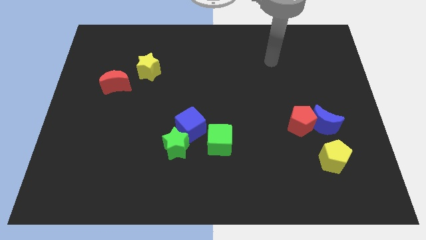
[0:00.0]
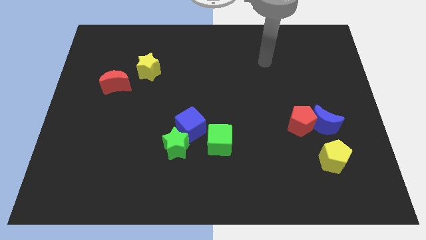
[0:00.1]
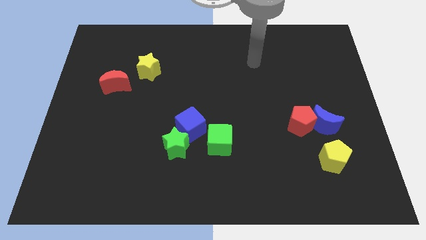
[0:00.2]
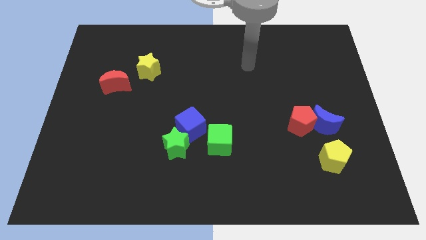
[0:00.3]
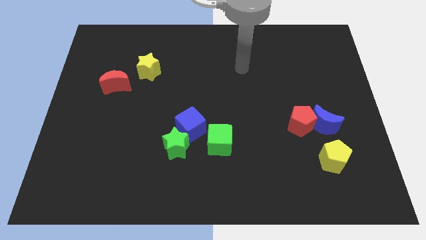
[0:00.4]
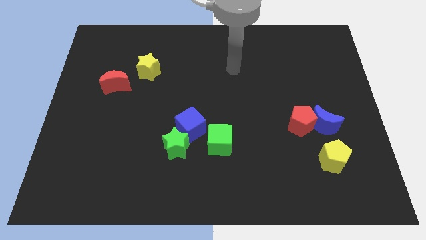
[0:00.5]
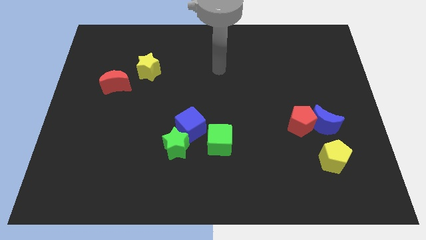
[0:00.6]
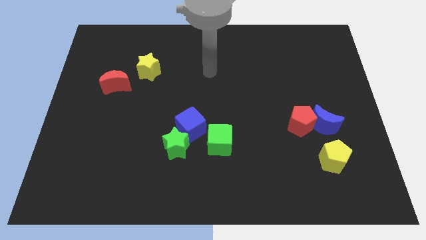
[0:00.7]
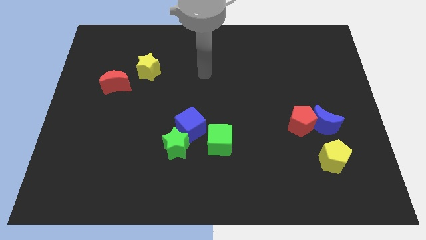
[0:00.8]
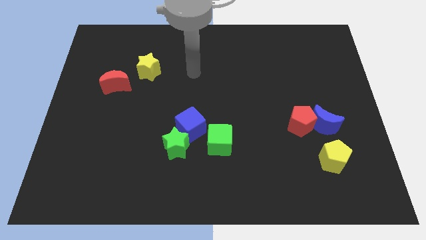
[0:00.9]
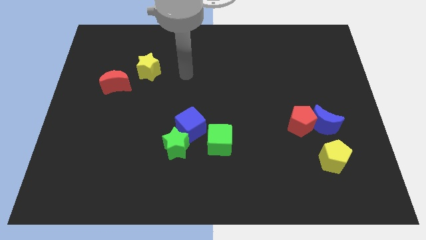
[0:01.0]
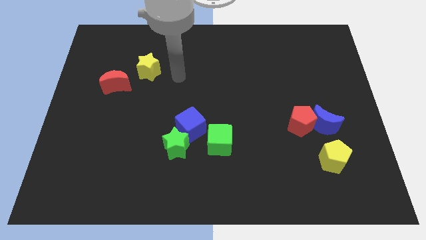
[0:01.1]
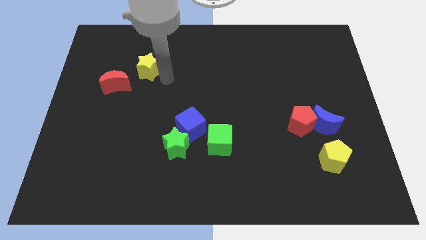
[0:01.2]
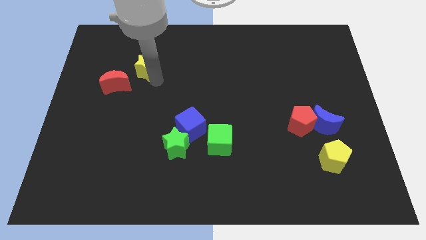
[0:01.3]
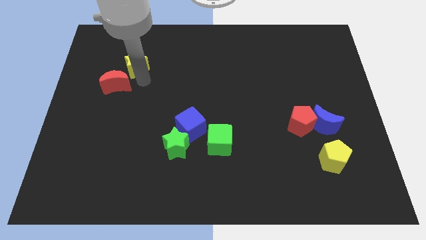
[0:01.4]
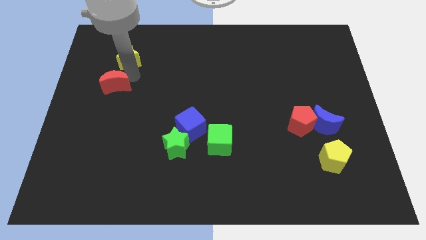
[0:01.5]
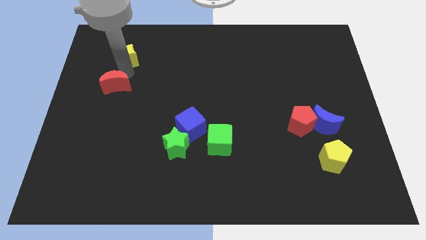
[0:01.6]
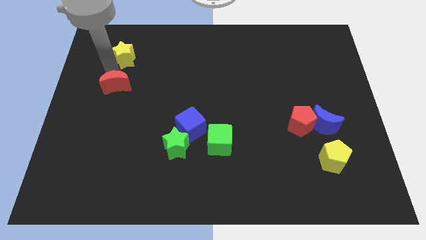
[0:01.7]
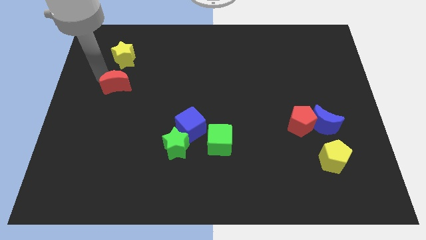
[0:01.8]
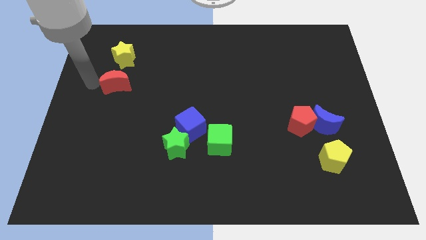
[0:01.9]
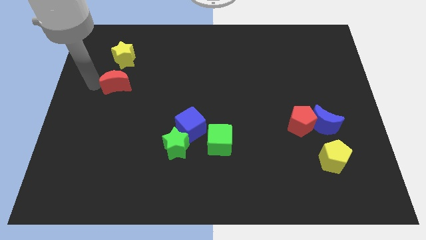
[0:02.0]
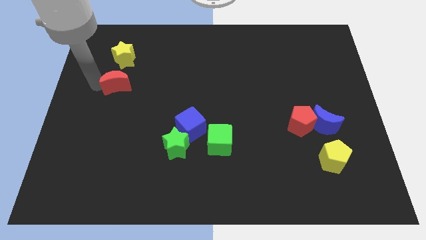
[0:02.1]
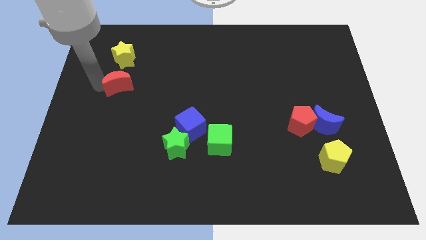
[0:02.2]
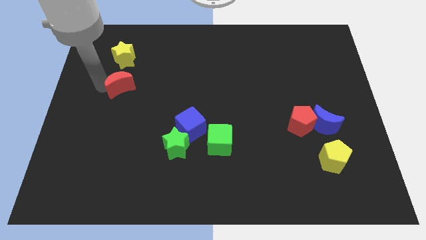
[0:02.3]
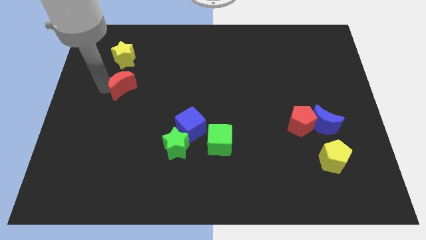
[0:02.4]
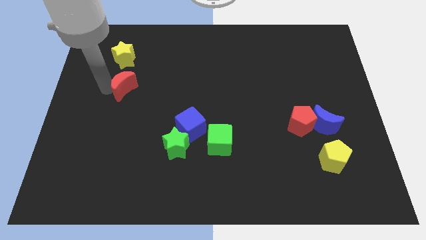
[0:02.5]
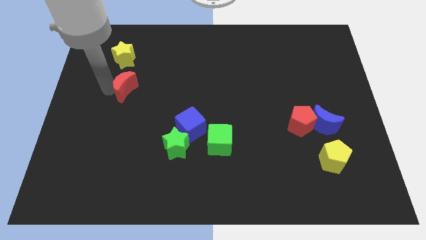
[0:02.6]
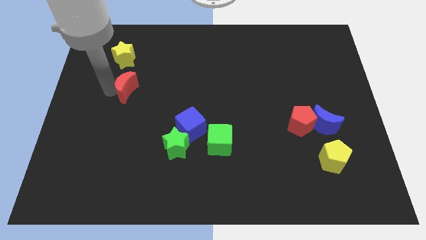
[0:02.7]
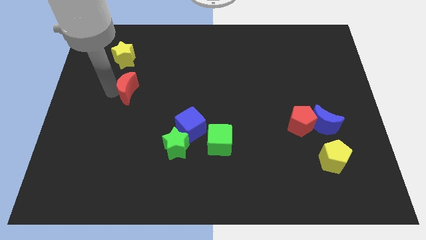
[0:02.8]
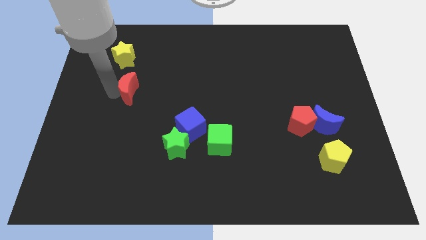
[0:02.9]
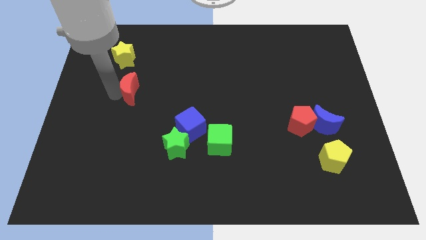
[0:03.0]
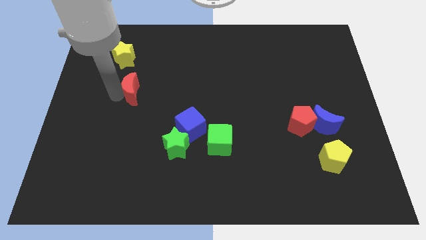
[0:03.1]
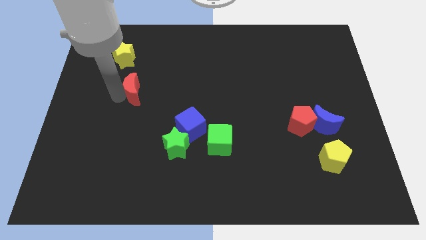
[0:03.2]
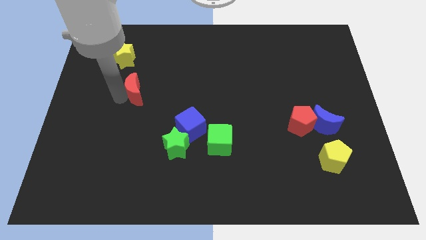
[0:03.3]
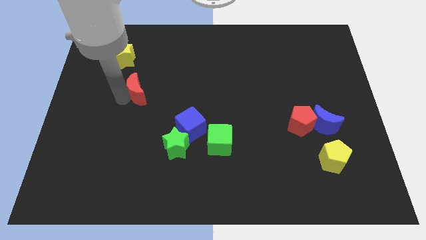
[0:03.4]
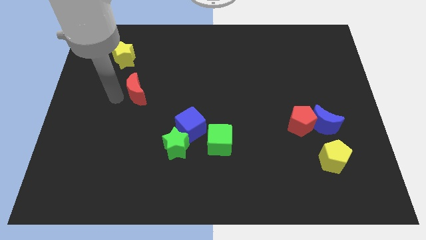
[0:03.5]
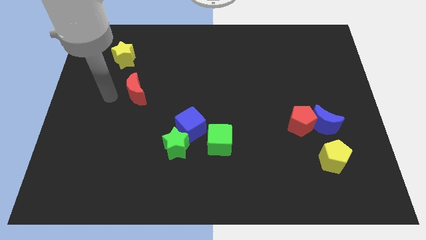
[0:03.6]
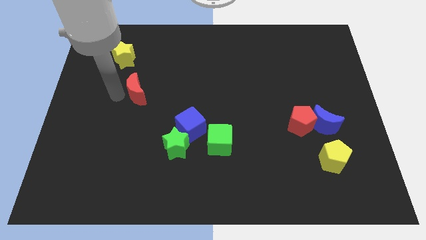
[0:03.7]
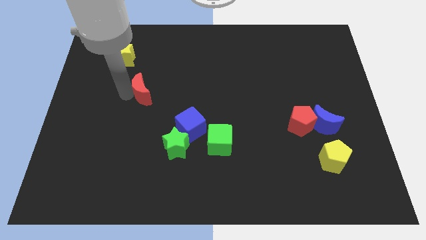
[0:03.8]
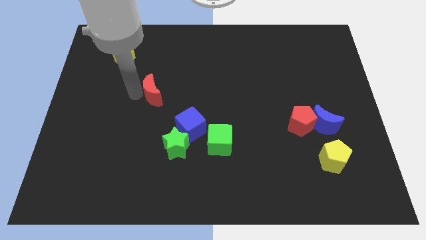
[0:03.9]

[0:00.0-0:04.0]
slide the red moon a bit to the right

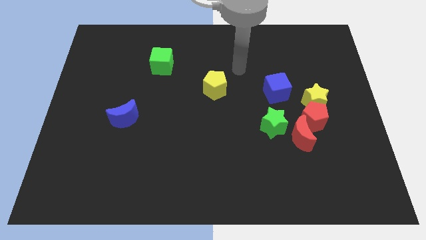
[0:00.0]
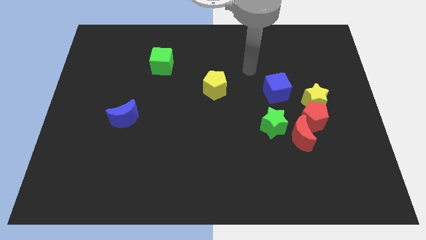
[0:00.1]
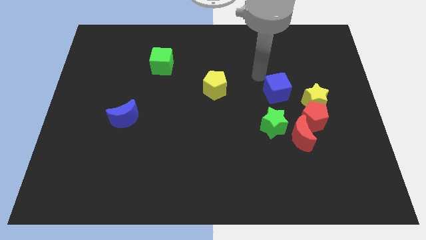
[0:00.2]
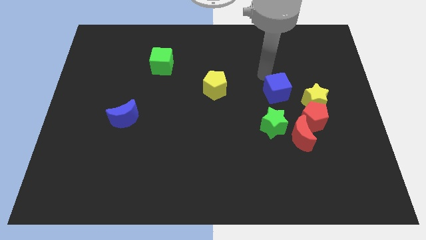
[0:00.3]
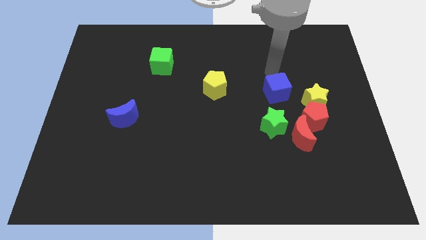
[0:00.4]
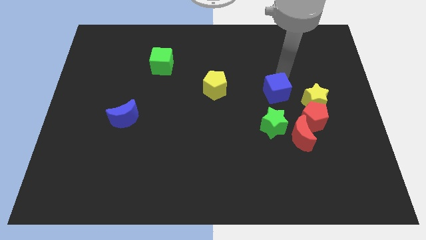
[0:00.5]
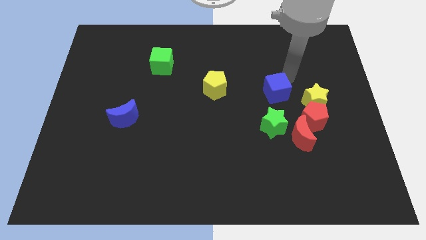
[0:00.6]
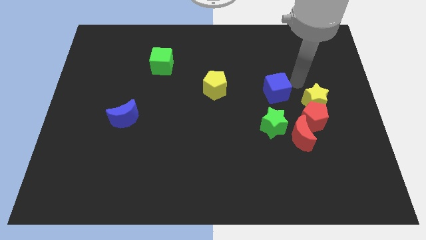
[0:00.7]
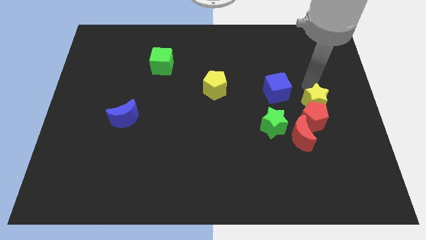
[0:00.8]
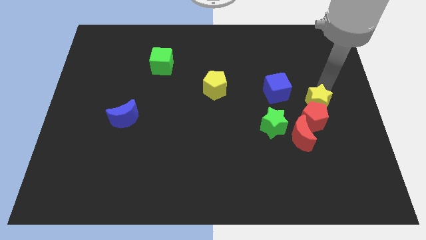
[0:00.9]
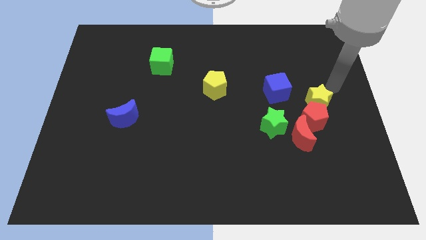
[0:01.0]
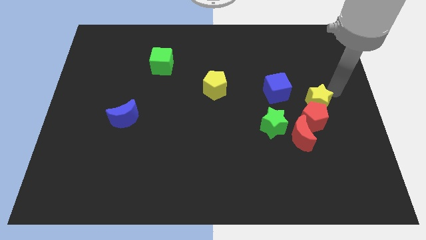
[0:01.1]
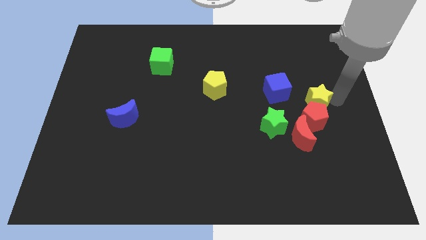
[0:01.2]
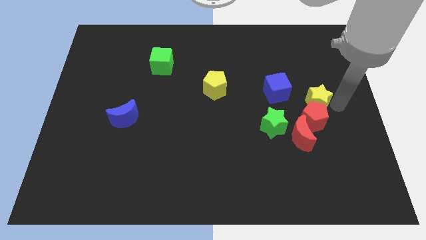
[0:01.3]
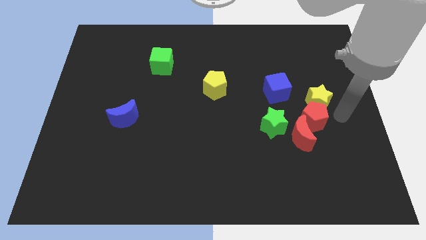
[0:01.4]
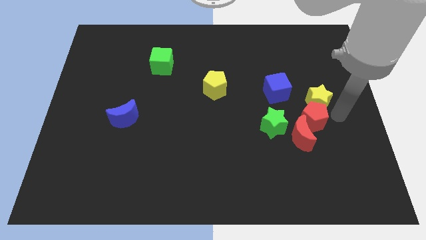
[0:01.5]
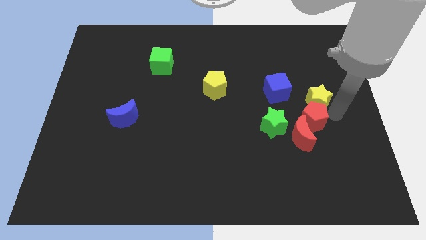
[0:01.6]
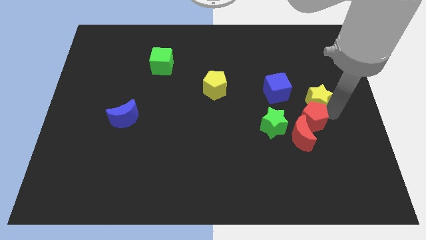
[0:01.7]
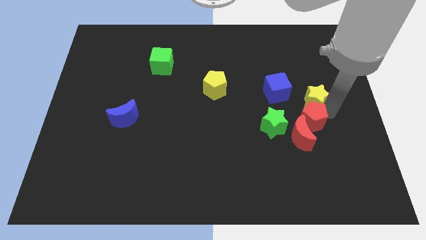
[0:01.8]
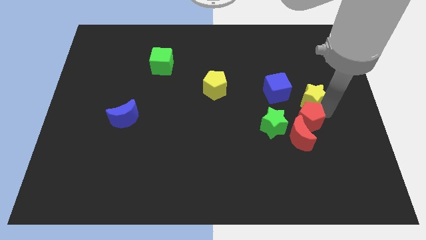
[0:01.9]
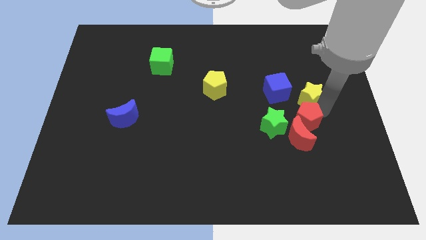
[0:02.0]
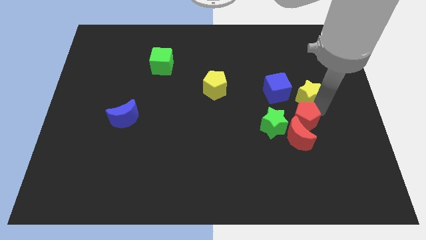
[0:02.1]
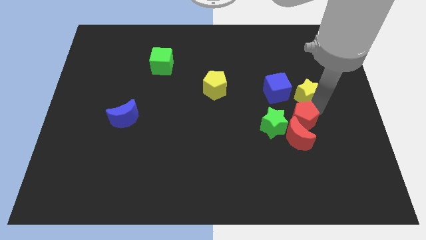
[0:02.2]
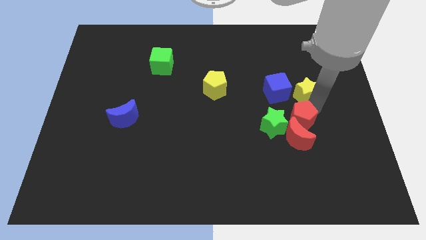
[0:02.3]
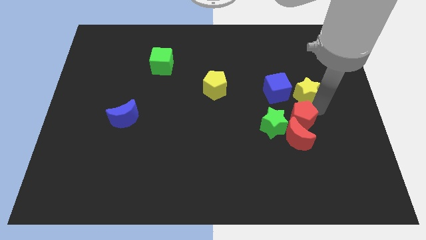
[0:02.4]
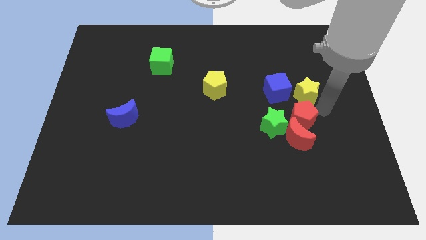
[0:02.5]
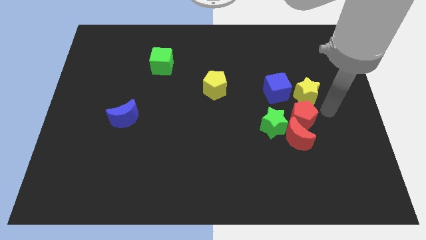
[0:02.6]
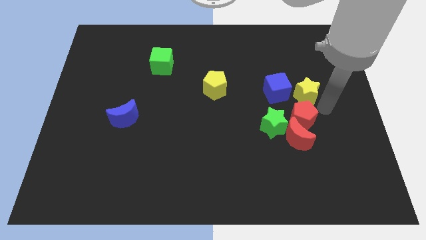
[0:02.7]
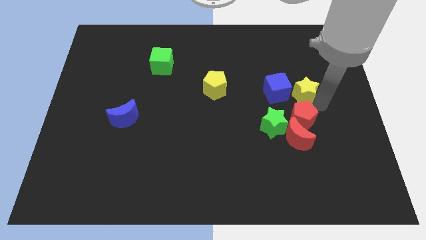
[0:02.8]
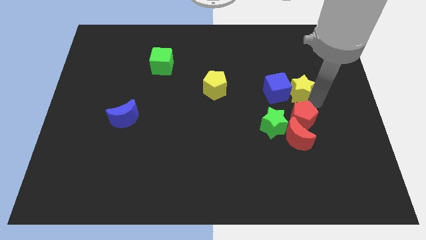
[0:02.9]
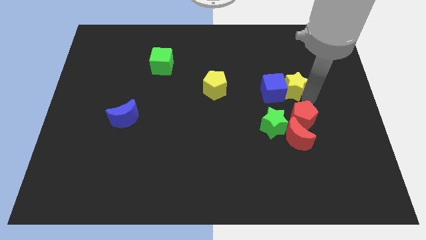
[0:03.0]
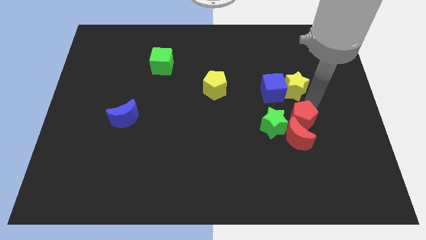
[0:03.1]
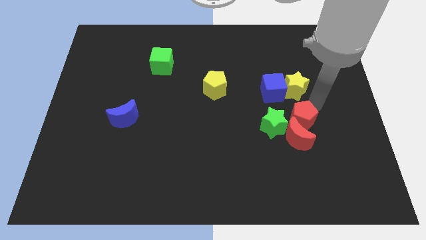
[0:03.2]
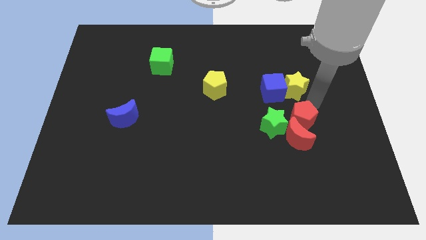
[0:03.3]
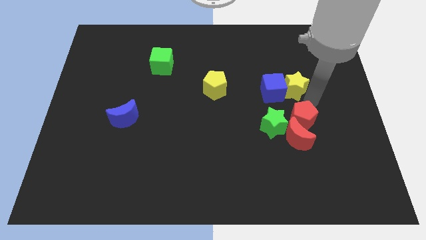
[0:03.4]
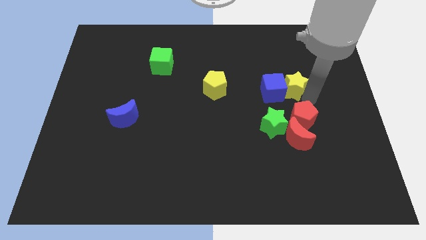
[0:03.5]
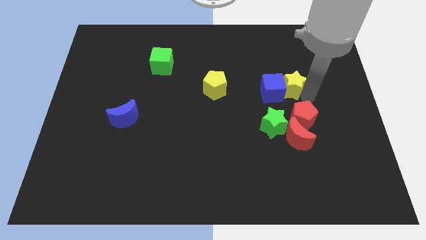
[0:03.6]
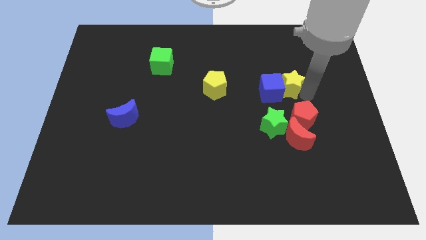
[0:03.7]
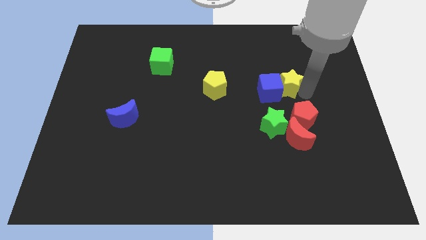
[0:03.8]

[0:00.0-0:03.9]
push the yellow star somewhat upwards and left

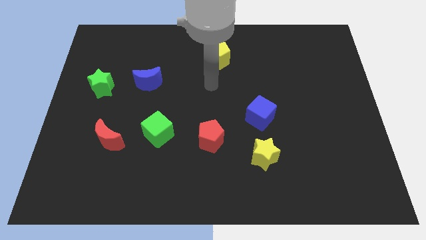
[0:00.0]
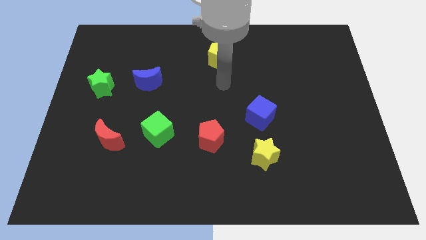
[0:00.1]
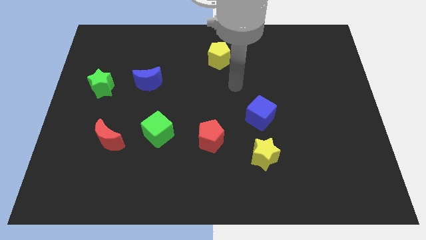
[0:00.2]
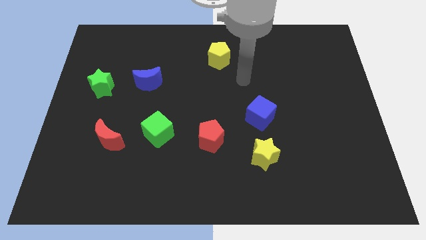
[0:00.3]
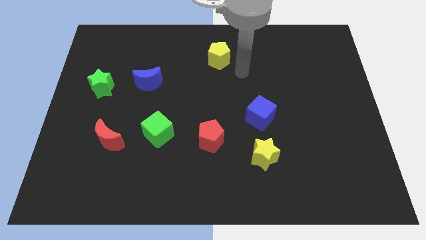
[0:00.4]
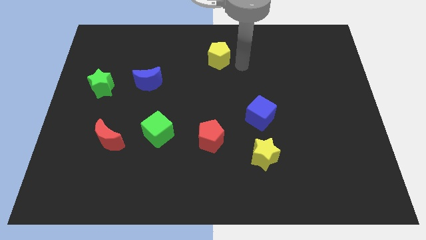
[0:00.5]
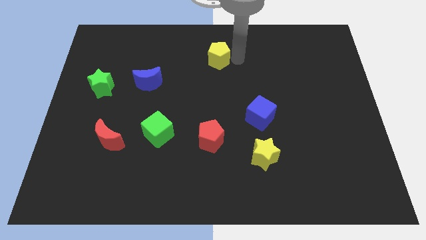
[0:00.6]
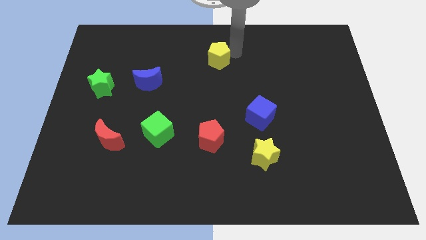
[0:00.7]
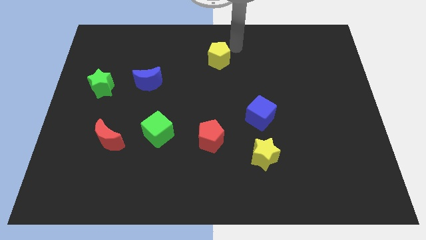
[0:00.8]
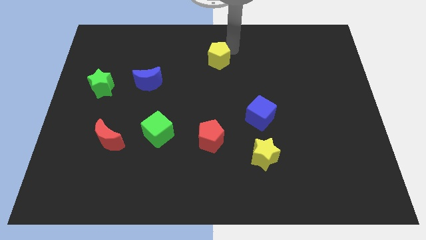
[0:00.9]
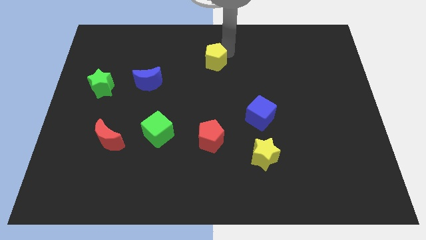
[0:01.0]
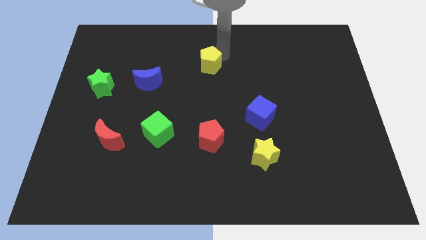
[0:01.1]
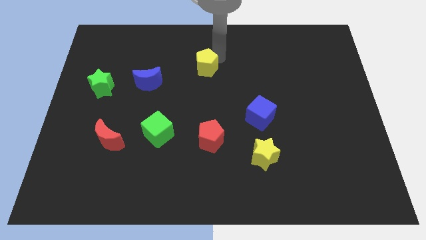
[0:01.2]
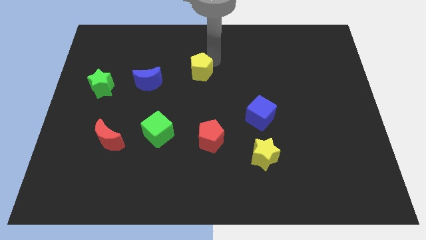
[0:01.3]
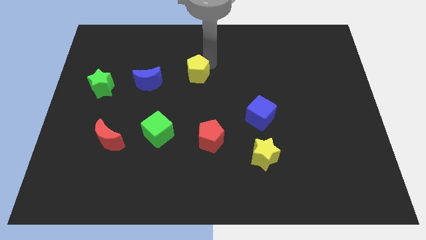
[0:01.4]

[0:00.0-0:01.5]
slightly move the yellow pentagon diagonally down and to the left
